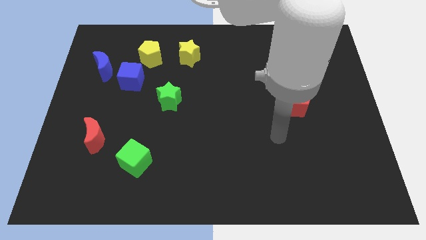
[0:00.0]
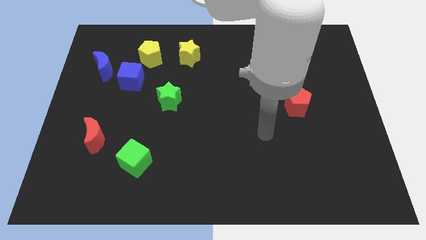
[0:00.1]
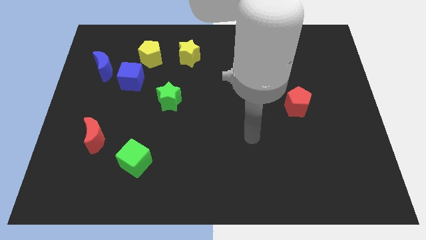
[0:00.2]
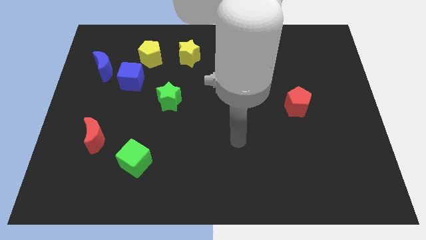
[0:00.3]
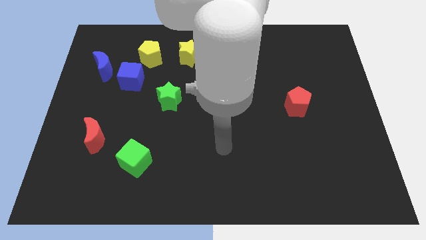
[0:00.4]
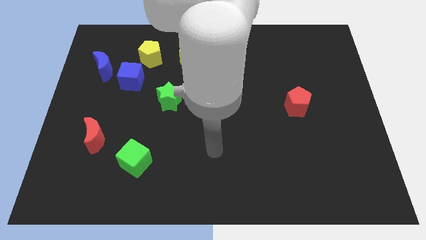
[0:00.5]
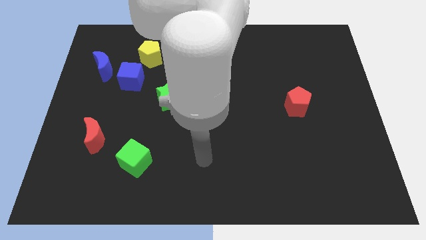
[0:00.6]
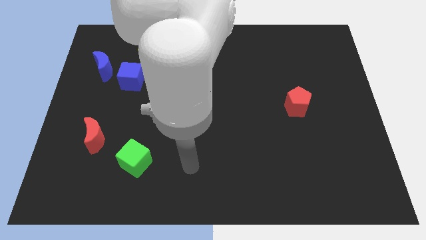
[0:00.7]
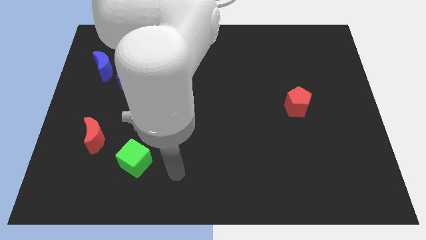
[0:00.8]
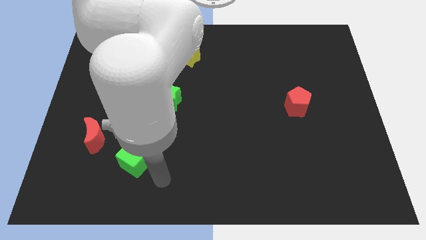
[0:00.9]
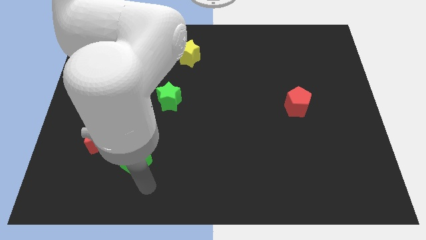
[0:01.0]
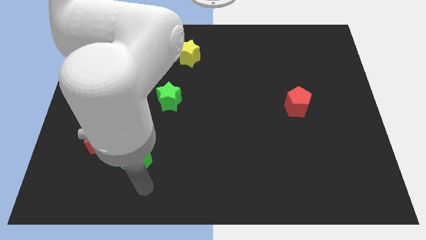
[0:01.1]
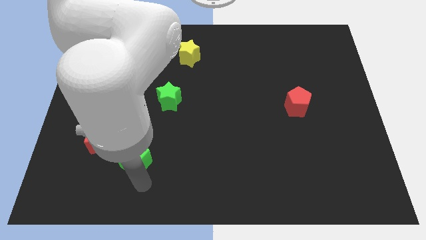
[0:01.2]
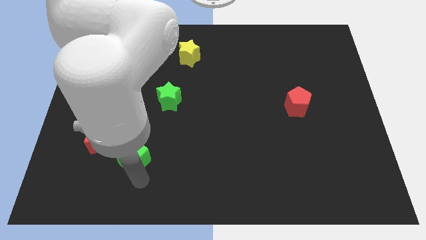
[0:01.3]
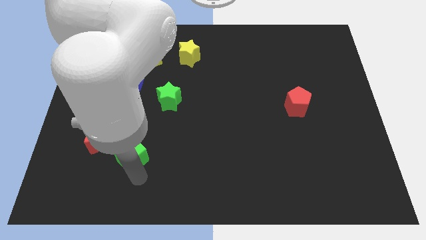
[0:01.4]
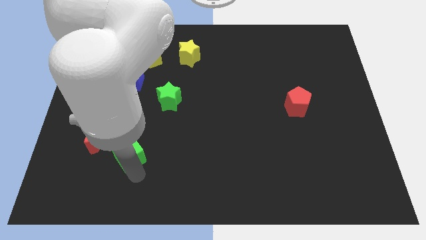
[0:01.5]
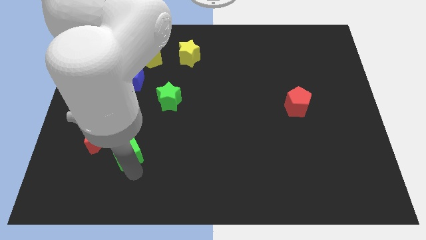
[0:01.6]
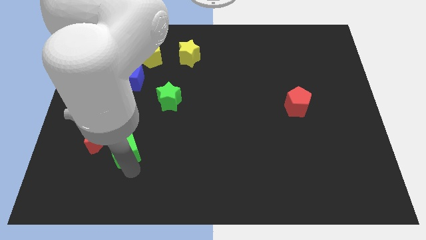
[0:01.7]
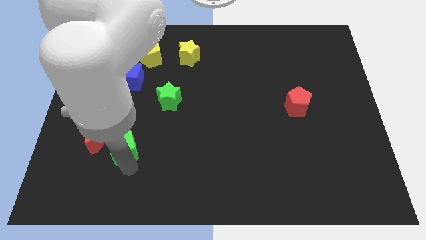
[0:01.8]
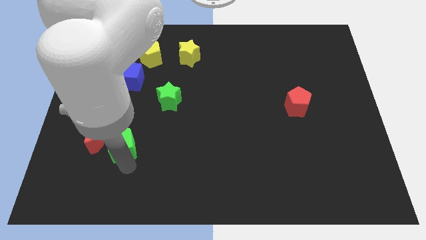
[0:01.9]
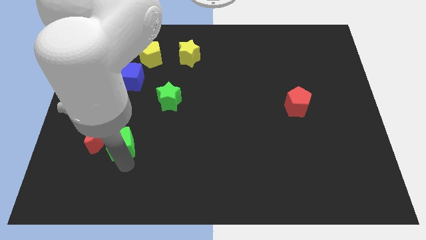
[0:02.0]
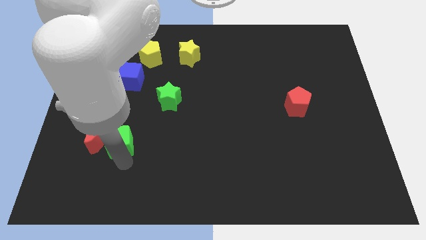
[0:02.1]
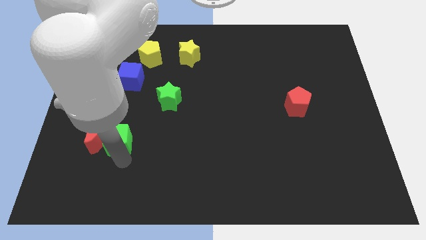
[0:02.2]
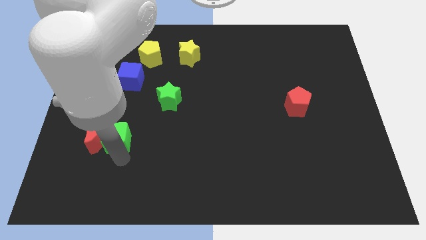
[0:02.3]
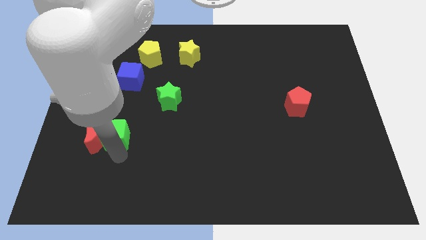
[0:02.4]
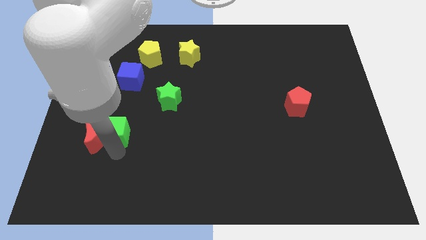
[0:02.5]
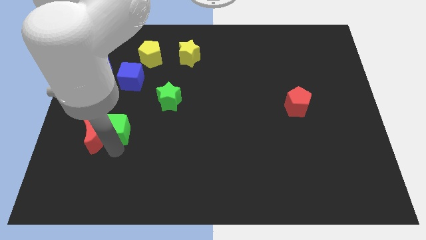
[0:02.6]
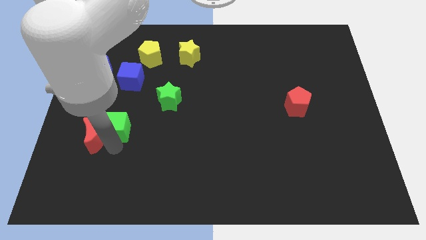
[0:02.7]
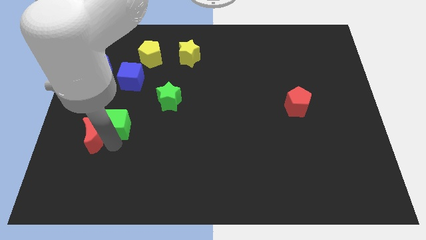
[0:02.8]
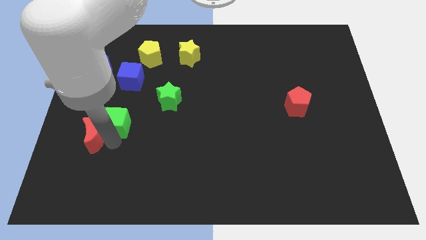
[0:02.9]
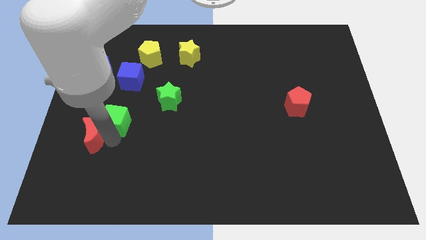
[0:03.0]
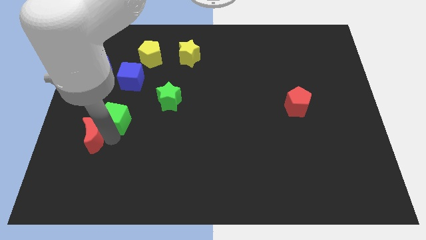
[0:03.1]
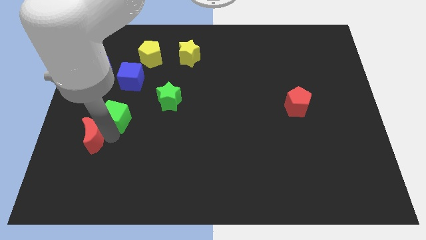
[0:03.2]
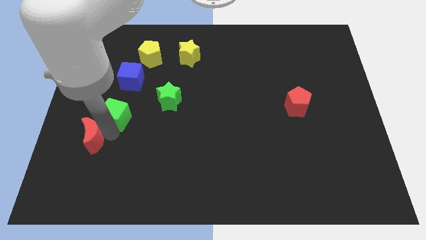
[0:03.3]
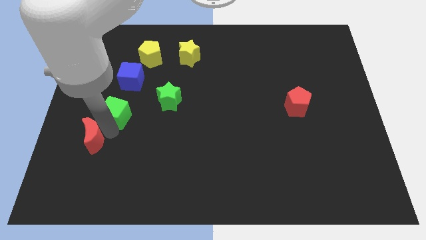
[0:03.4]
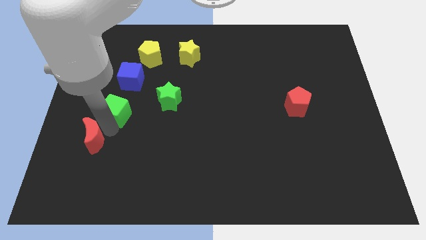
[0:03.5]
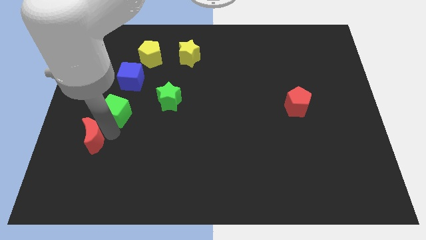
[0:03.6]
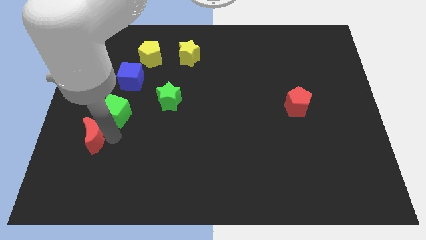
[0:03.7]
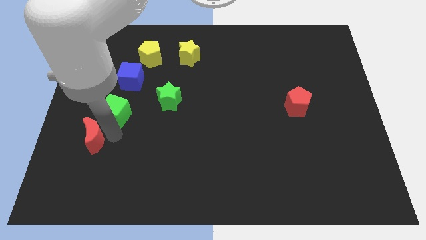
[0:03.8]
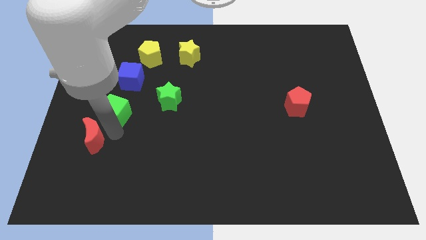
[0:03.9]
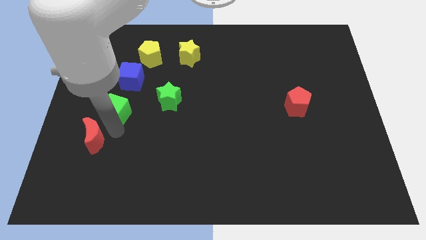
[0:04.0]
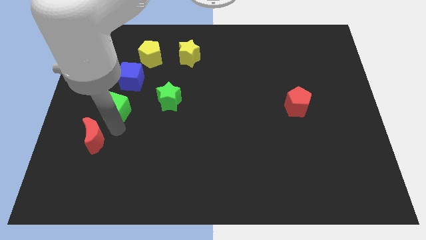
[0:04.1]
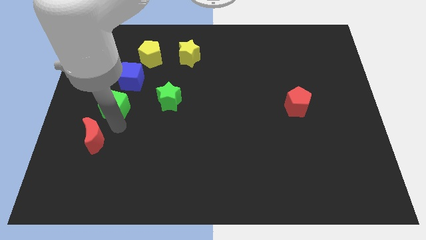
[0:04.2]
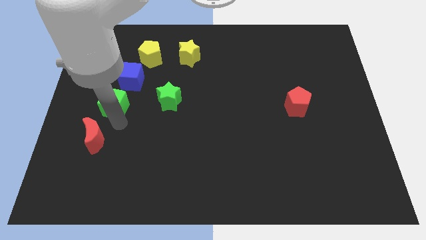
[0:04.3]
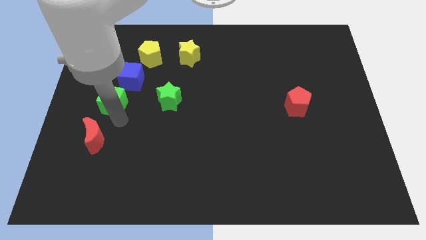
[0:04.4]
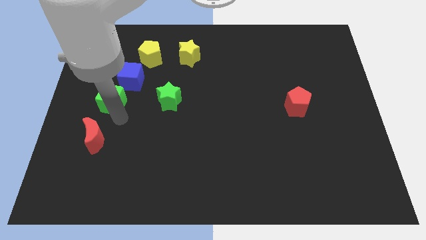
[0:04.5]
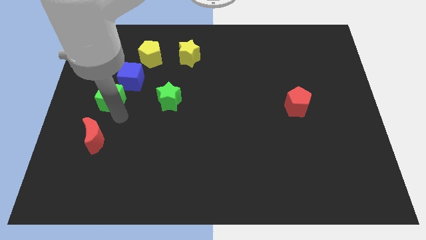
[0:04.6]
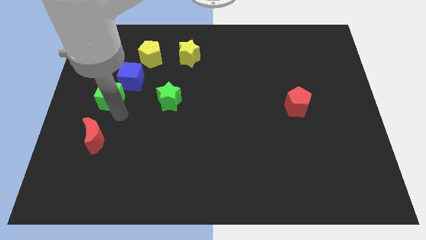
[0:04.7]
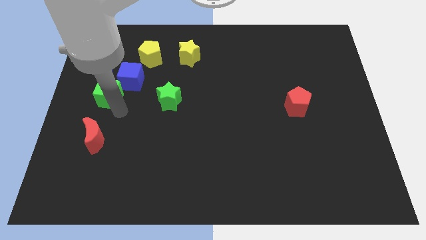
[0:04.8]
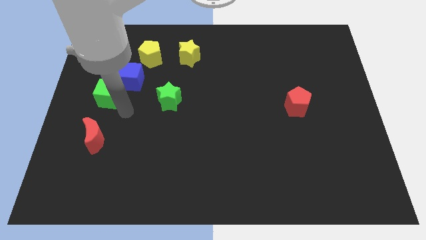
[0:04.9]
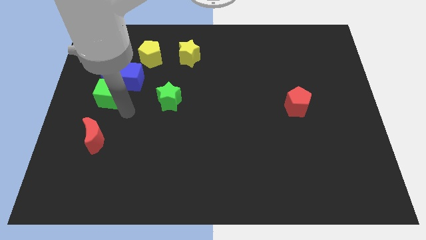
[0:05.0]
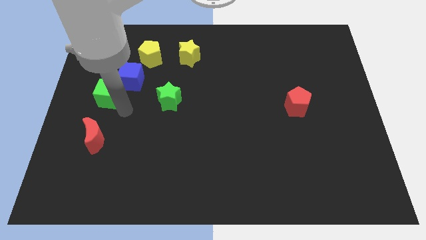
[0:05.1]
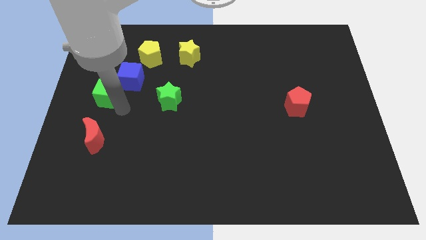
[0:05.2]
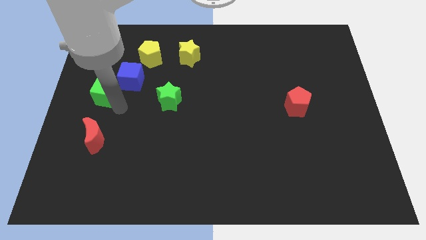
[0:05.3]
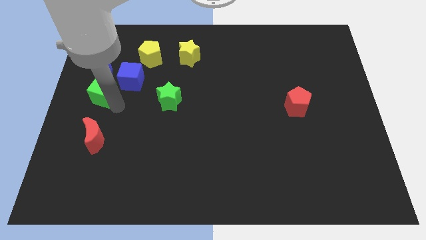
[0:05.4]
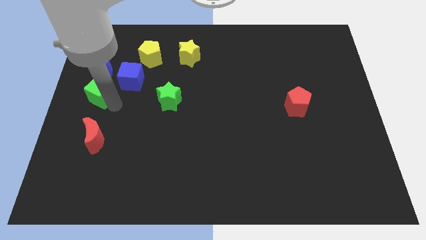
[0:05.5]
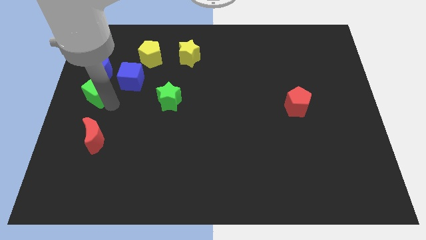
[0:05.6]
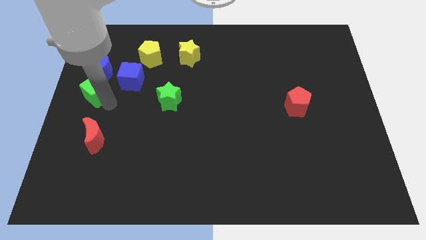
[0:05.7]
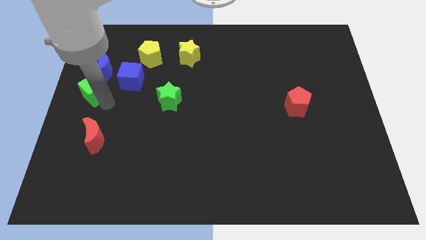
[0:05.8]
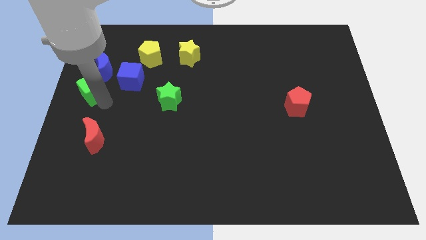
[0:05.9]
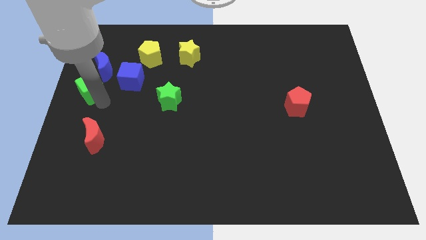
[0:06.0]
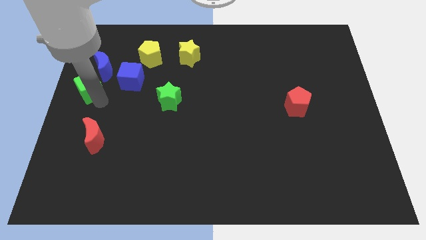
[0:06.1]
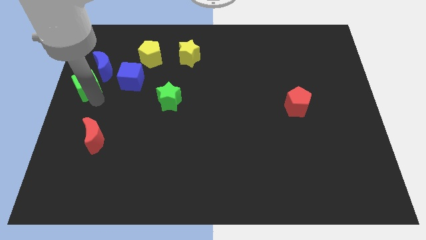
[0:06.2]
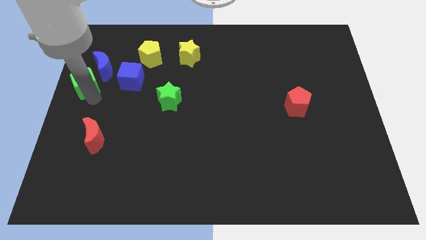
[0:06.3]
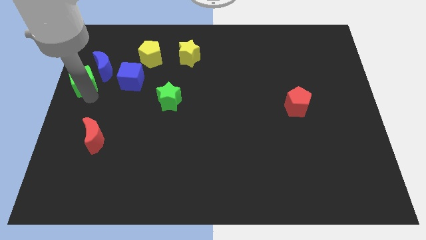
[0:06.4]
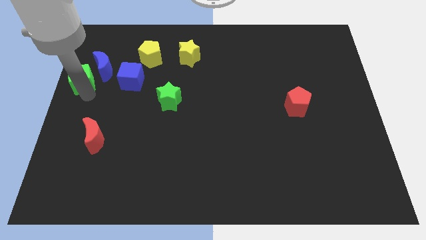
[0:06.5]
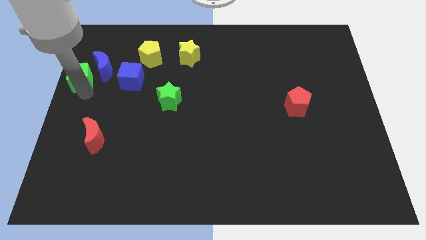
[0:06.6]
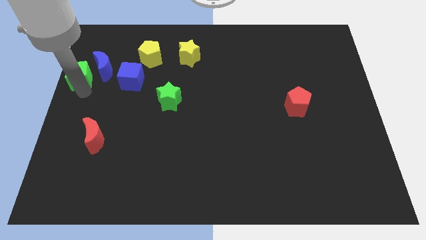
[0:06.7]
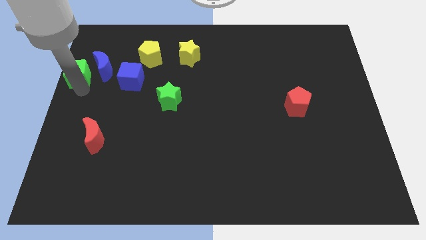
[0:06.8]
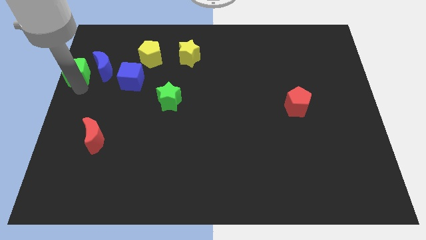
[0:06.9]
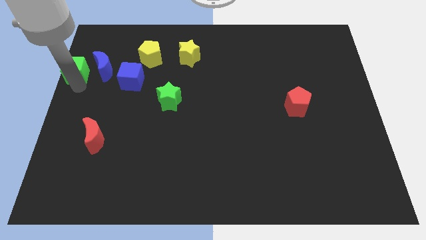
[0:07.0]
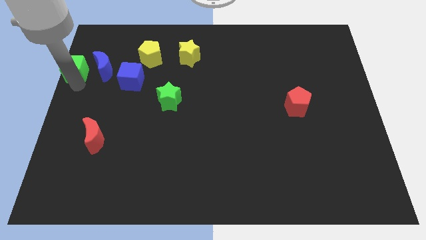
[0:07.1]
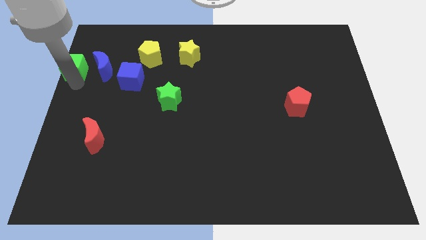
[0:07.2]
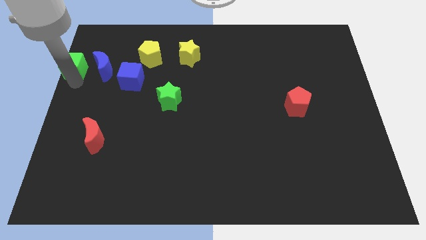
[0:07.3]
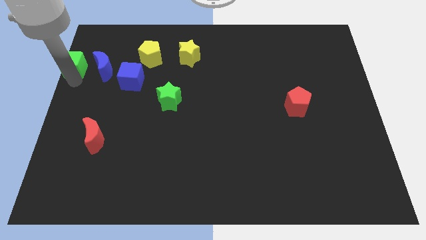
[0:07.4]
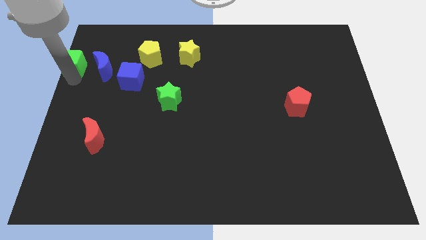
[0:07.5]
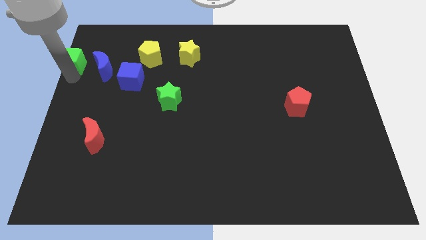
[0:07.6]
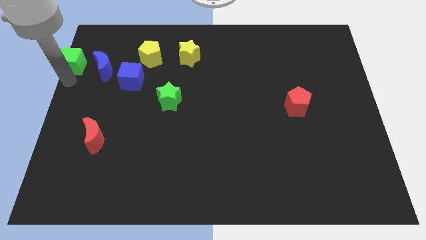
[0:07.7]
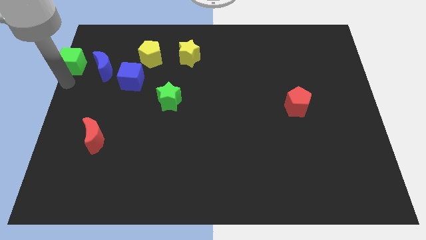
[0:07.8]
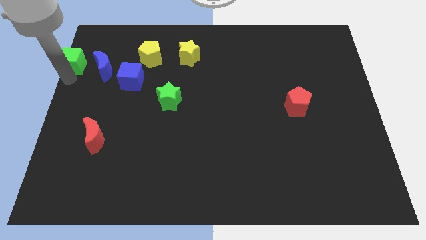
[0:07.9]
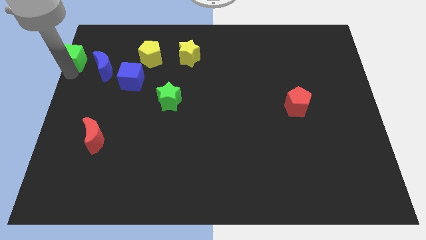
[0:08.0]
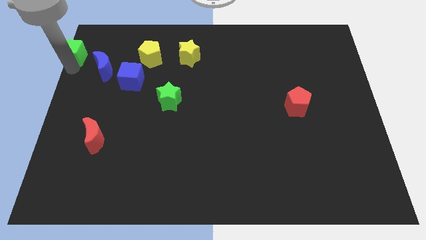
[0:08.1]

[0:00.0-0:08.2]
put the green cube to the top left corner
